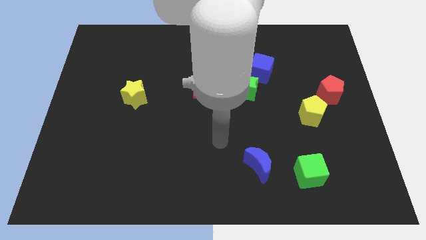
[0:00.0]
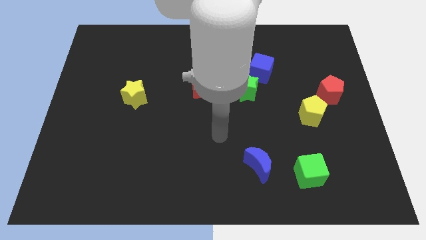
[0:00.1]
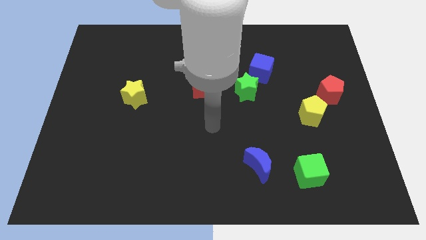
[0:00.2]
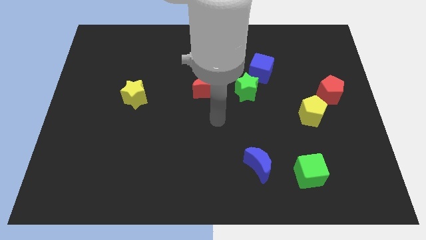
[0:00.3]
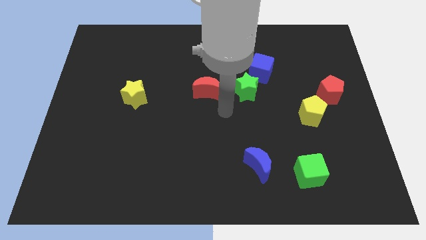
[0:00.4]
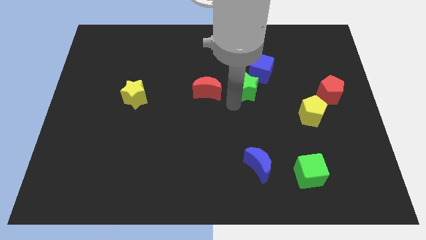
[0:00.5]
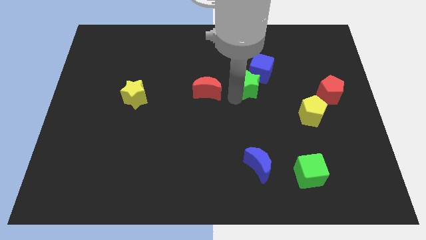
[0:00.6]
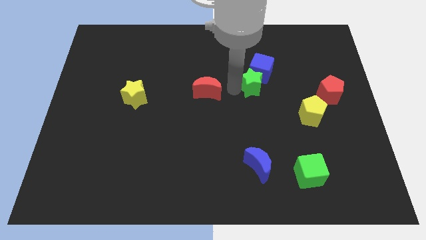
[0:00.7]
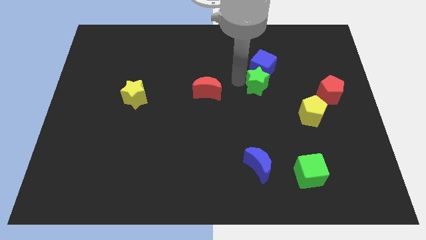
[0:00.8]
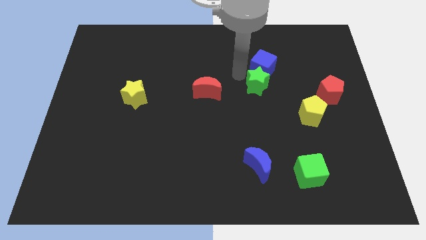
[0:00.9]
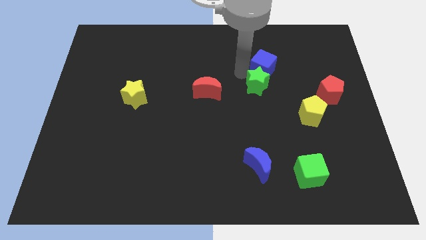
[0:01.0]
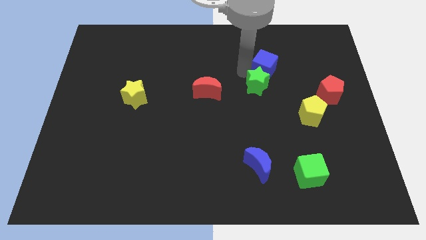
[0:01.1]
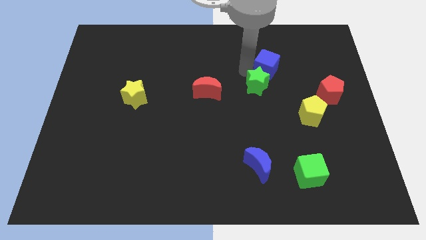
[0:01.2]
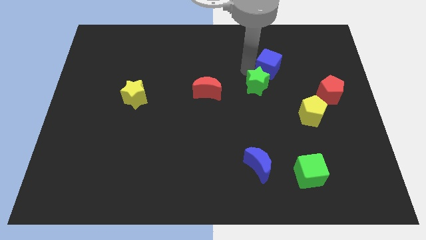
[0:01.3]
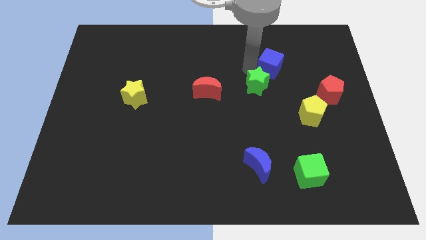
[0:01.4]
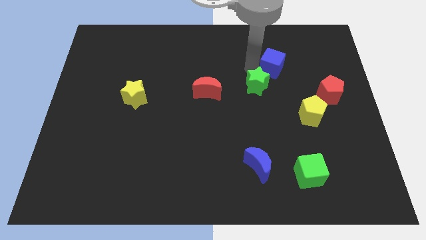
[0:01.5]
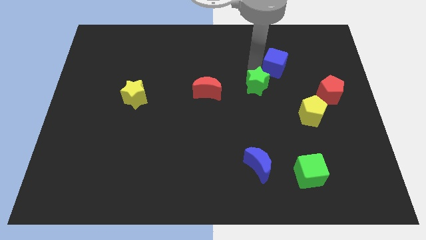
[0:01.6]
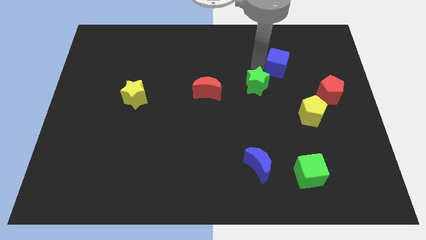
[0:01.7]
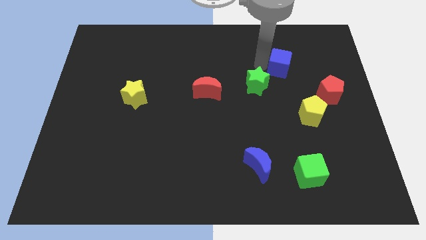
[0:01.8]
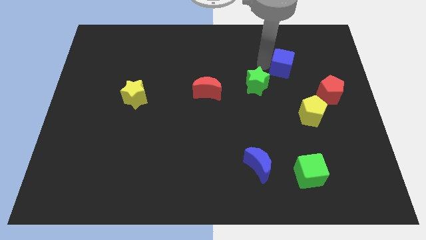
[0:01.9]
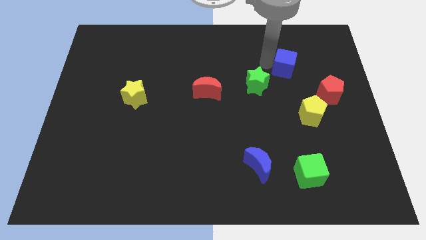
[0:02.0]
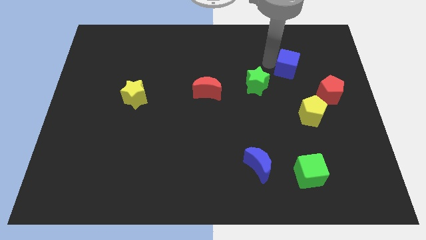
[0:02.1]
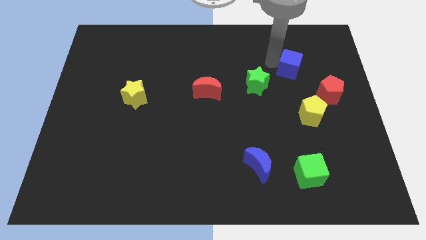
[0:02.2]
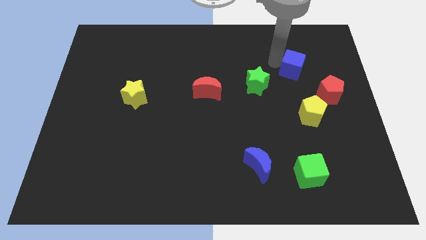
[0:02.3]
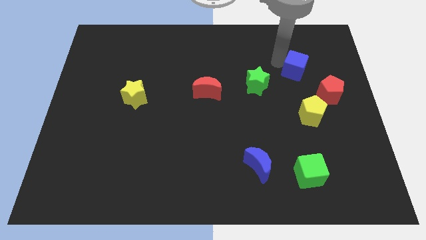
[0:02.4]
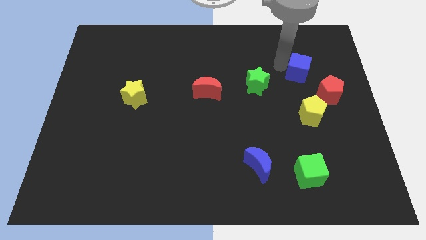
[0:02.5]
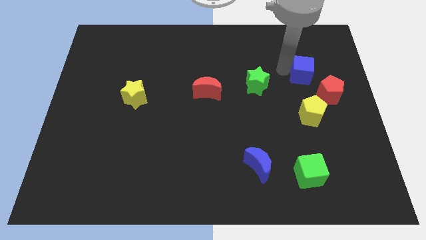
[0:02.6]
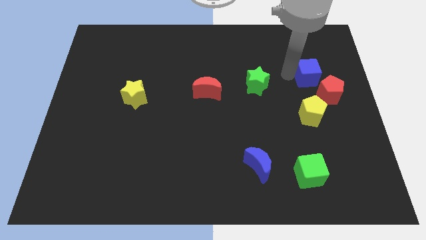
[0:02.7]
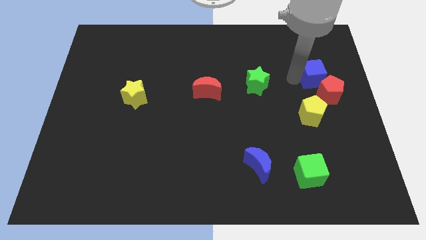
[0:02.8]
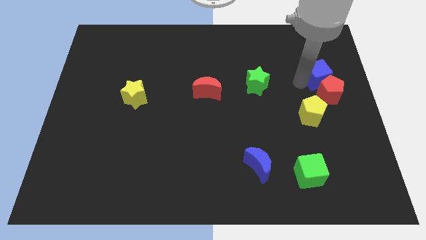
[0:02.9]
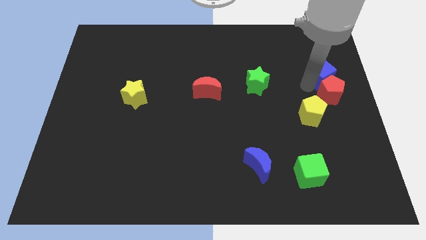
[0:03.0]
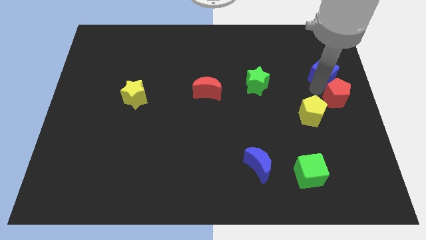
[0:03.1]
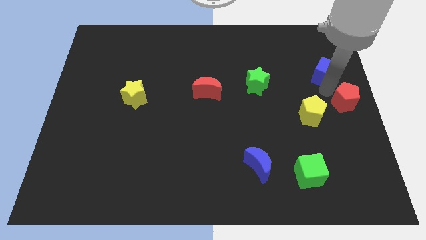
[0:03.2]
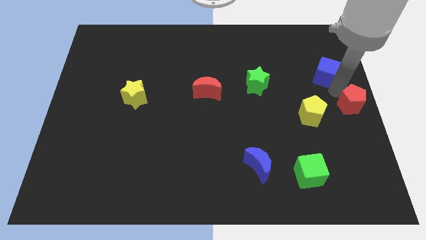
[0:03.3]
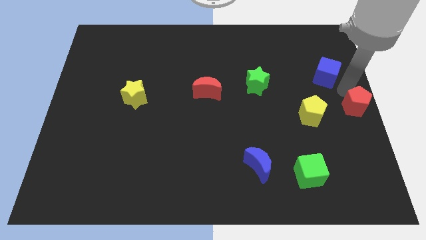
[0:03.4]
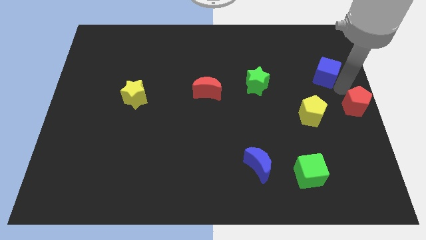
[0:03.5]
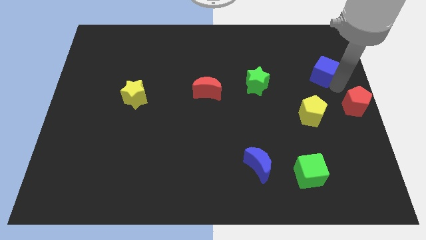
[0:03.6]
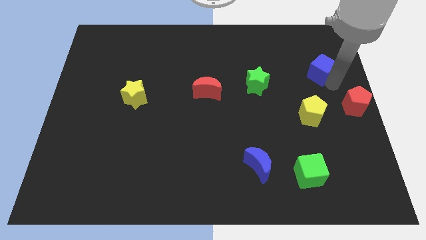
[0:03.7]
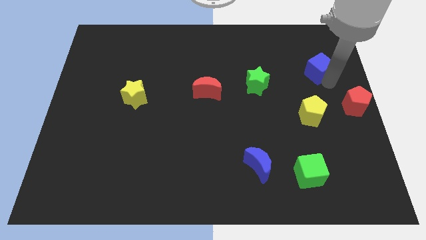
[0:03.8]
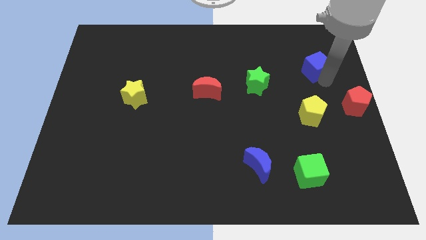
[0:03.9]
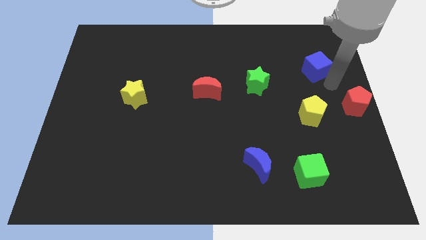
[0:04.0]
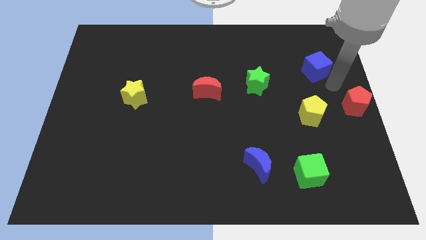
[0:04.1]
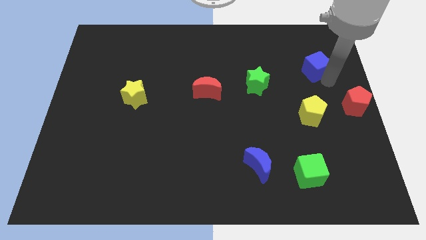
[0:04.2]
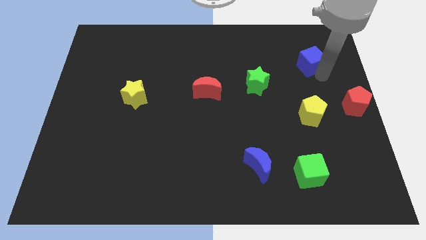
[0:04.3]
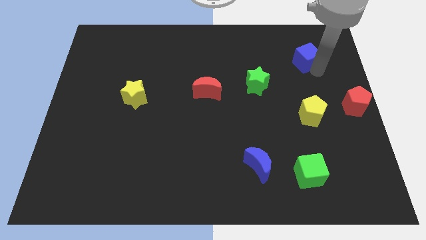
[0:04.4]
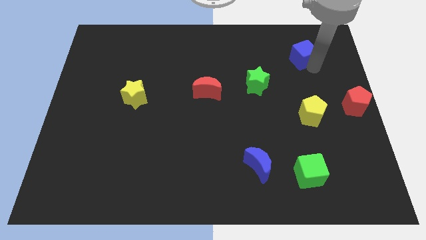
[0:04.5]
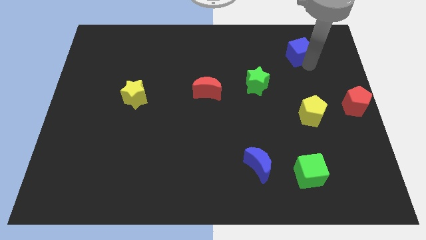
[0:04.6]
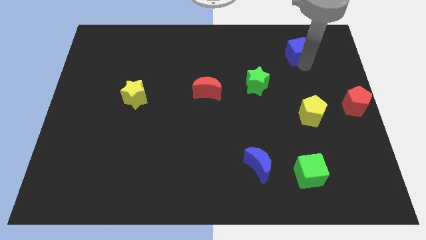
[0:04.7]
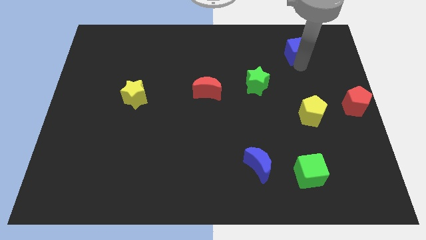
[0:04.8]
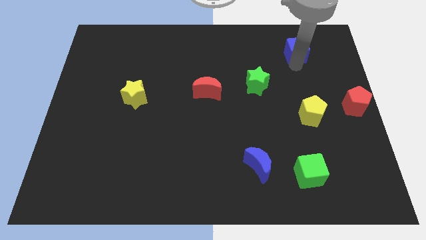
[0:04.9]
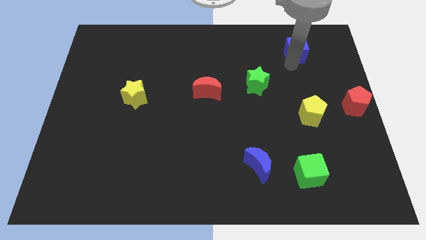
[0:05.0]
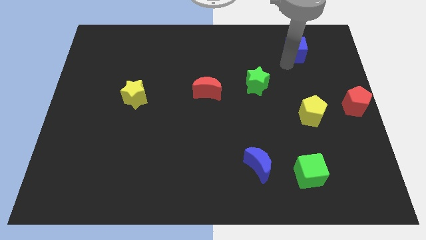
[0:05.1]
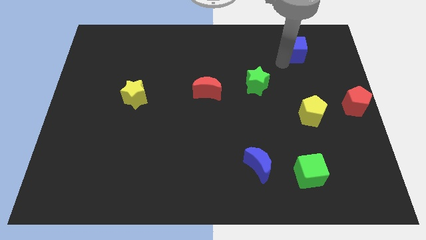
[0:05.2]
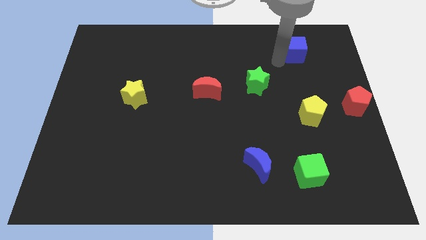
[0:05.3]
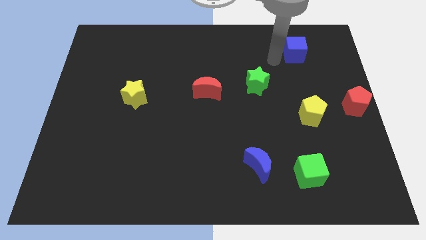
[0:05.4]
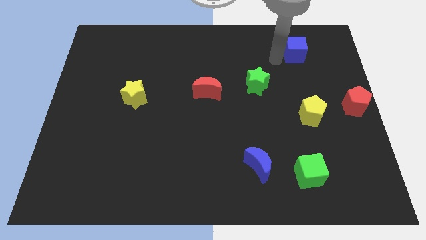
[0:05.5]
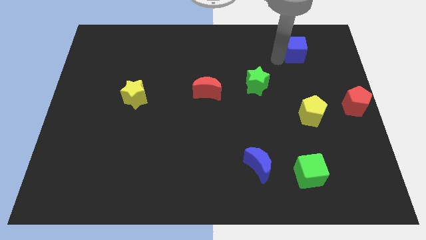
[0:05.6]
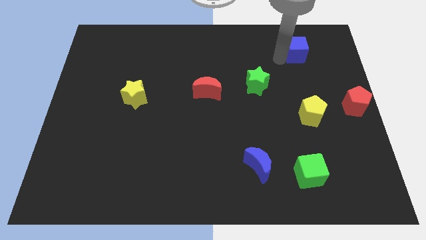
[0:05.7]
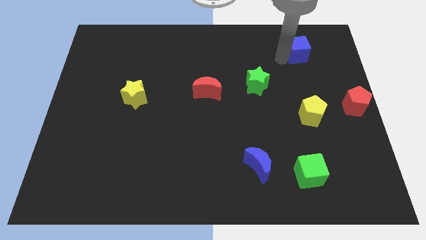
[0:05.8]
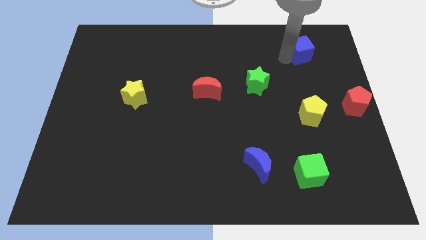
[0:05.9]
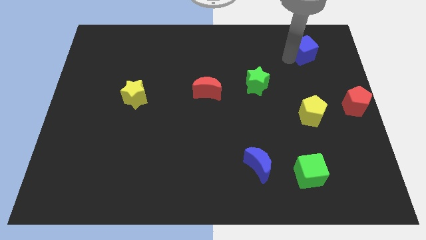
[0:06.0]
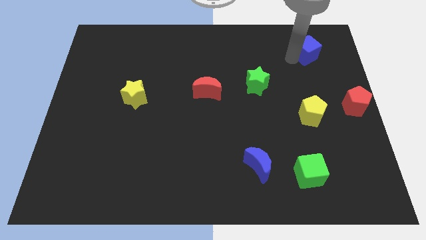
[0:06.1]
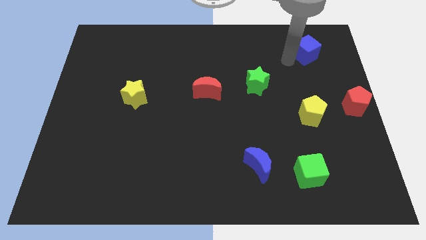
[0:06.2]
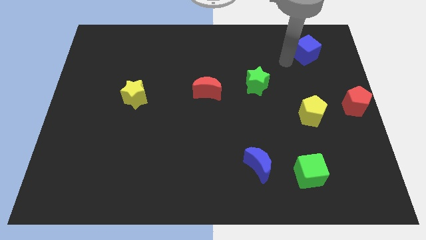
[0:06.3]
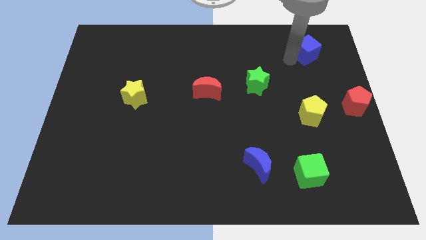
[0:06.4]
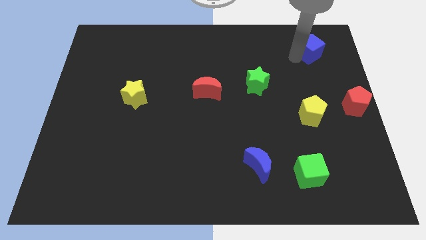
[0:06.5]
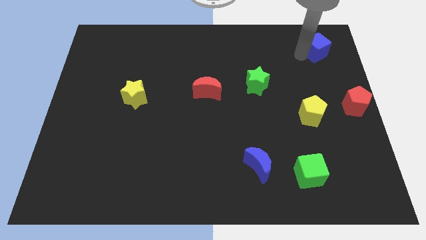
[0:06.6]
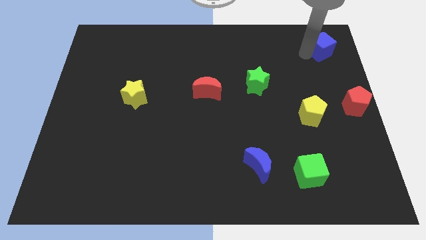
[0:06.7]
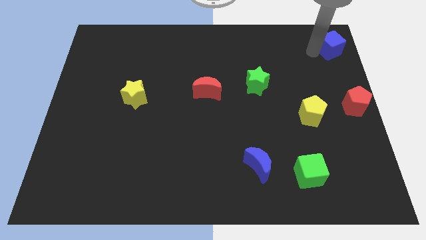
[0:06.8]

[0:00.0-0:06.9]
move the blue cube to the top right
